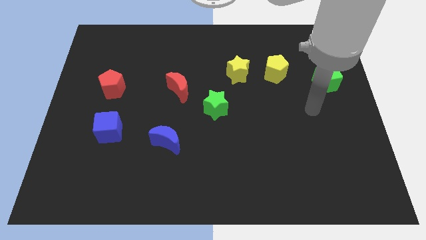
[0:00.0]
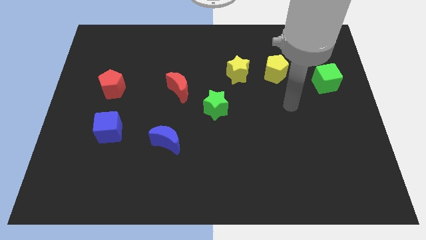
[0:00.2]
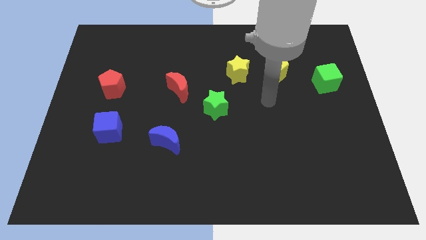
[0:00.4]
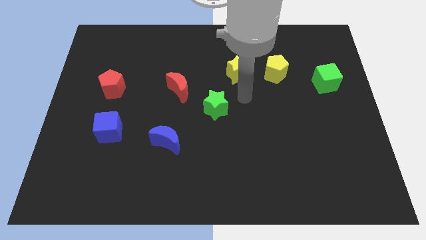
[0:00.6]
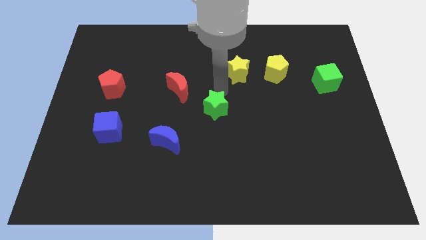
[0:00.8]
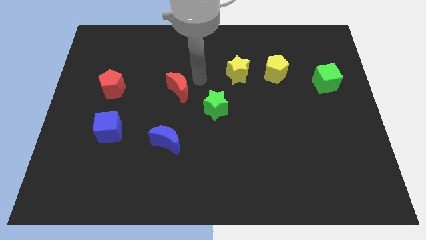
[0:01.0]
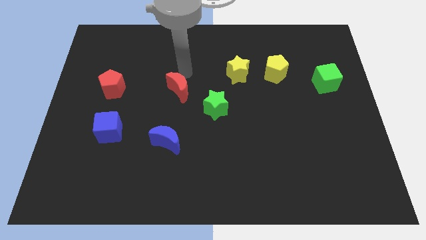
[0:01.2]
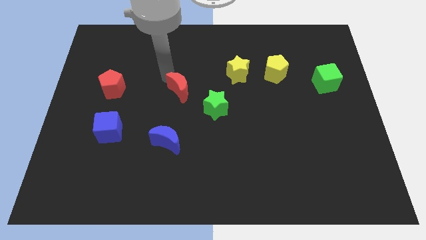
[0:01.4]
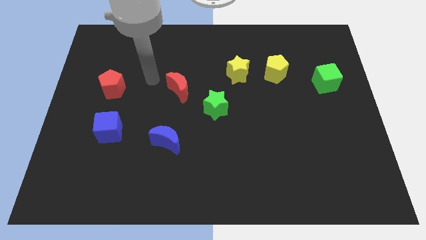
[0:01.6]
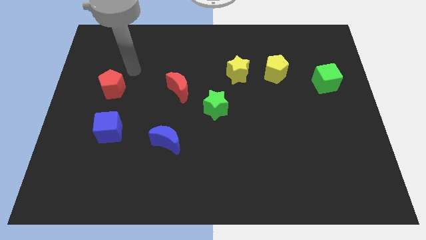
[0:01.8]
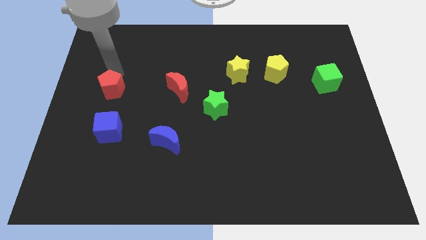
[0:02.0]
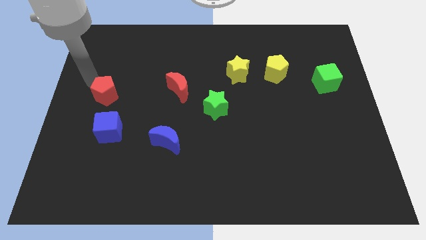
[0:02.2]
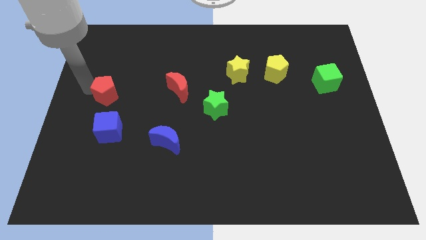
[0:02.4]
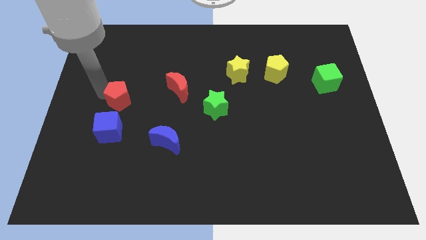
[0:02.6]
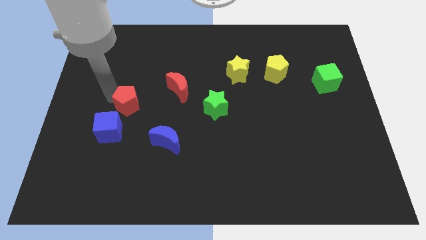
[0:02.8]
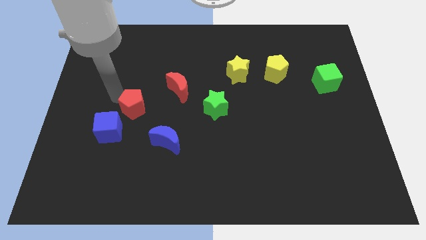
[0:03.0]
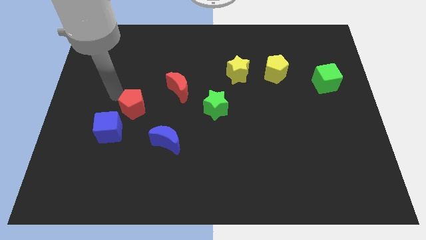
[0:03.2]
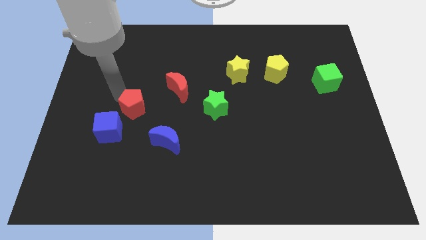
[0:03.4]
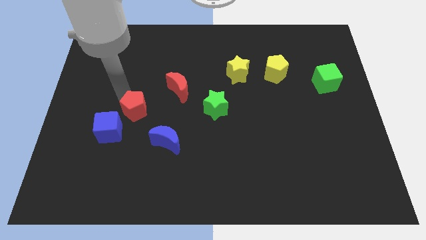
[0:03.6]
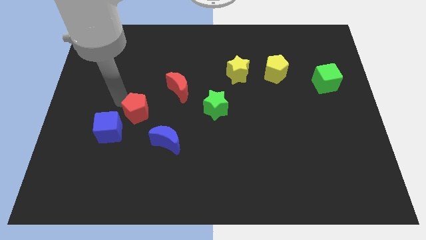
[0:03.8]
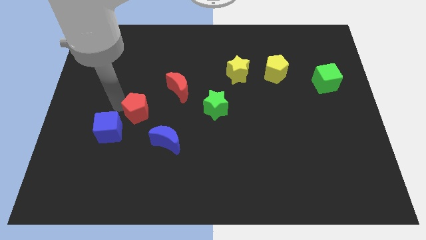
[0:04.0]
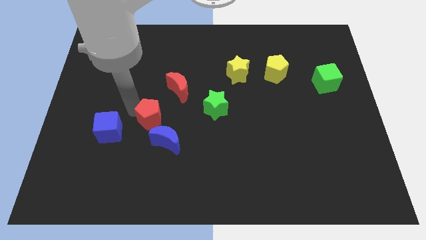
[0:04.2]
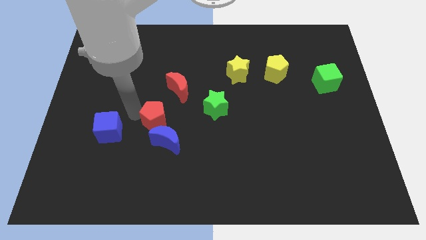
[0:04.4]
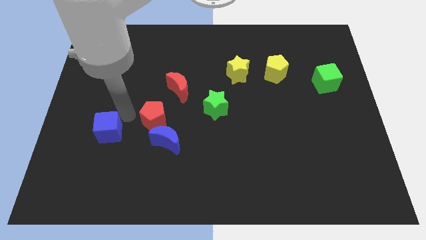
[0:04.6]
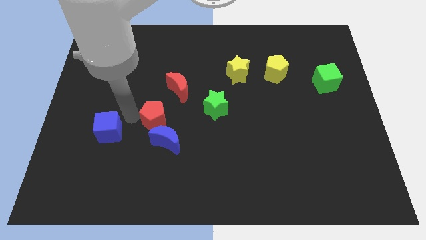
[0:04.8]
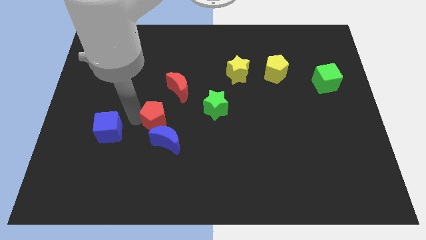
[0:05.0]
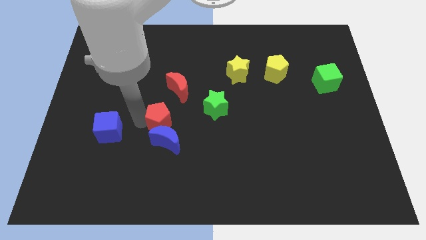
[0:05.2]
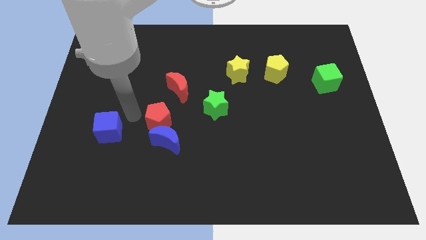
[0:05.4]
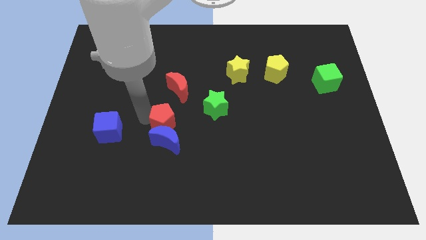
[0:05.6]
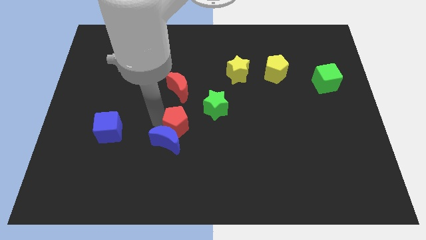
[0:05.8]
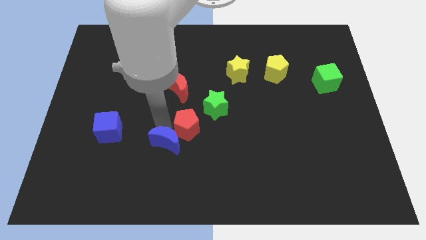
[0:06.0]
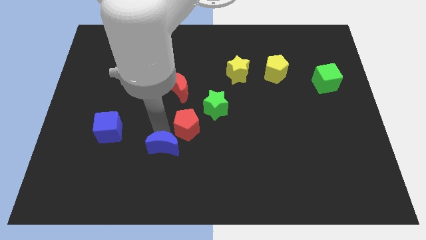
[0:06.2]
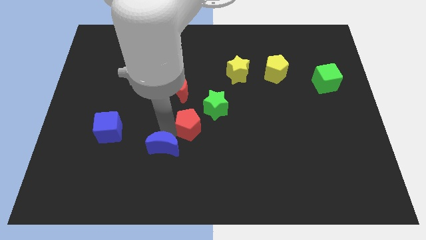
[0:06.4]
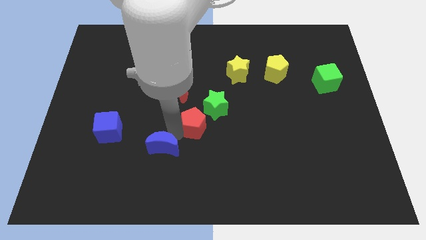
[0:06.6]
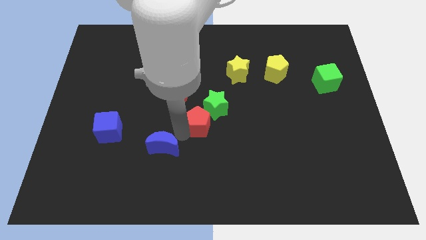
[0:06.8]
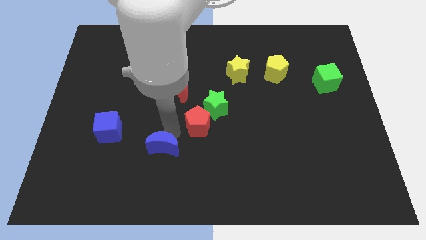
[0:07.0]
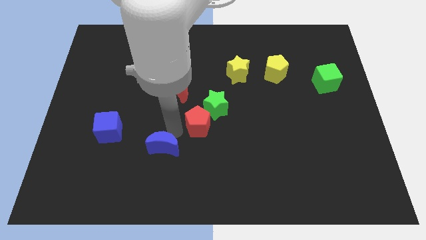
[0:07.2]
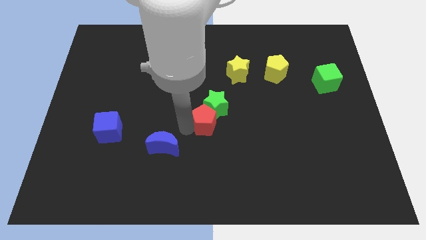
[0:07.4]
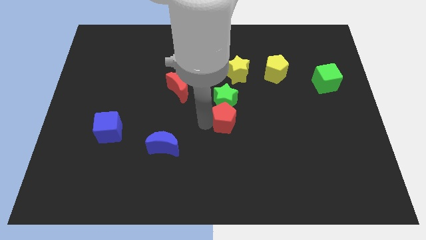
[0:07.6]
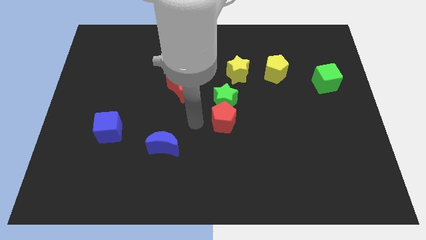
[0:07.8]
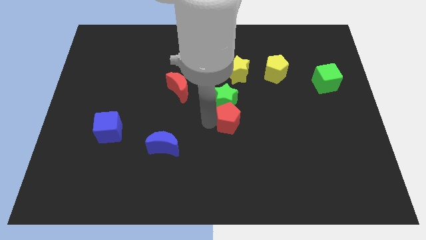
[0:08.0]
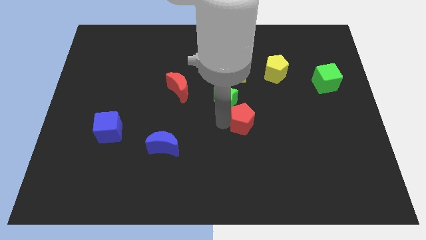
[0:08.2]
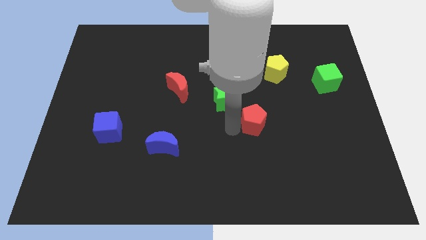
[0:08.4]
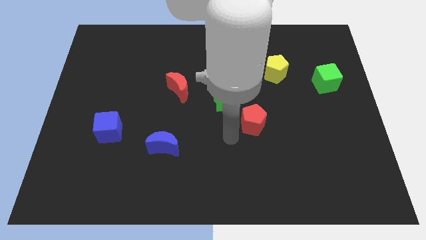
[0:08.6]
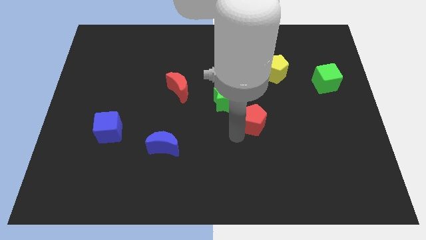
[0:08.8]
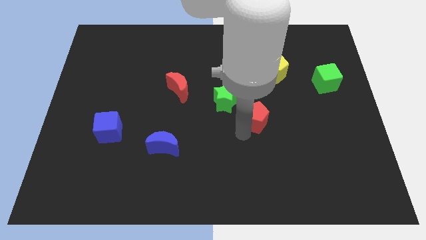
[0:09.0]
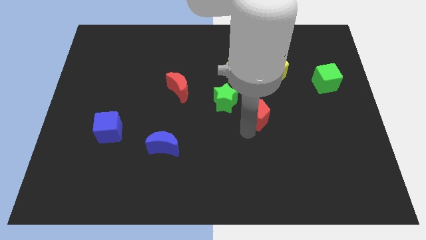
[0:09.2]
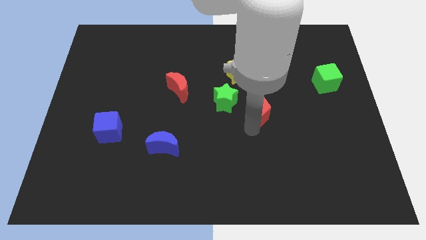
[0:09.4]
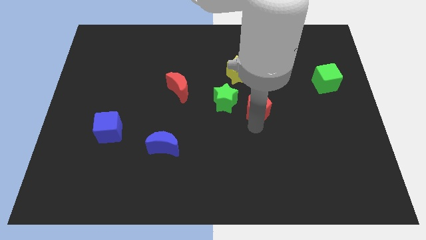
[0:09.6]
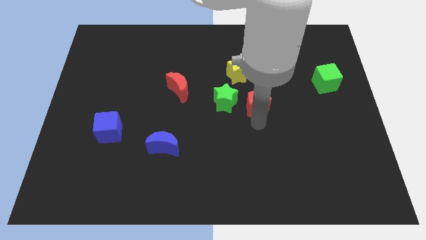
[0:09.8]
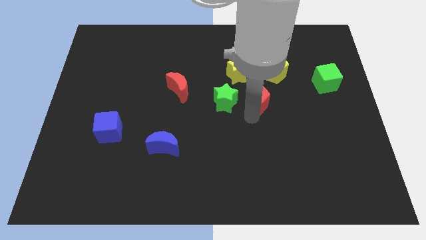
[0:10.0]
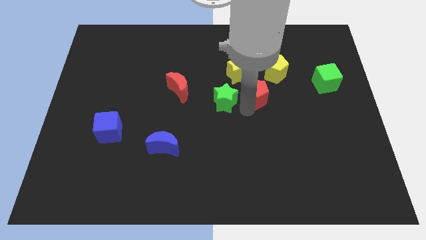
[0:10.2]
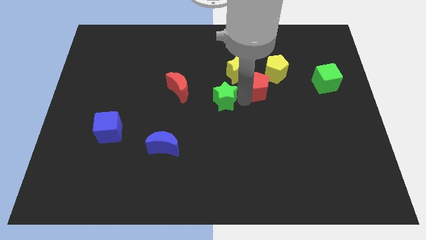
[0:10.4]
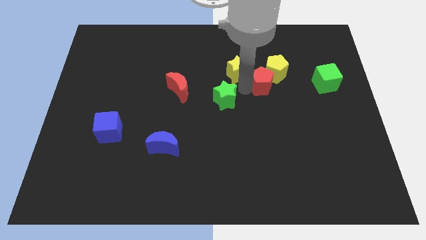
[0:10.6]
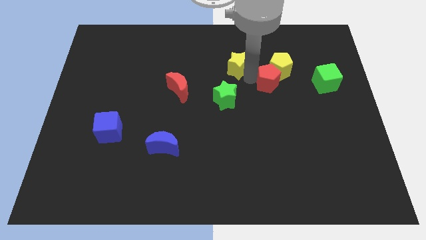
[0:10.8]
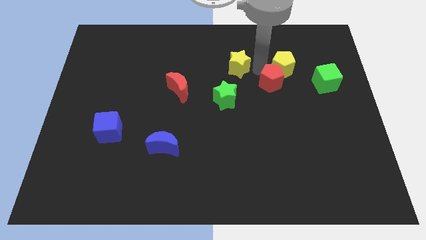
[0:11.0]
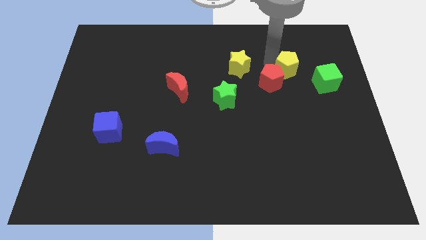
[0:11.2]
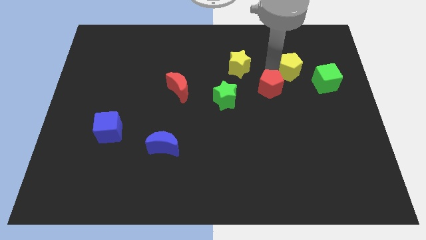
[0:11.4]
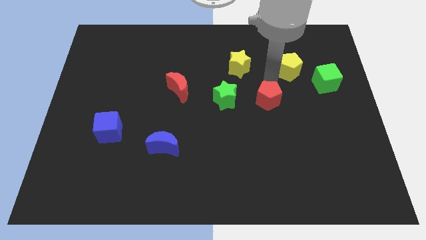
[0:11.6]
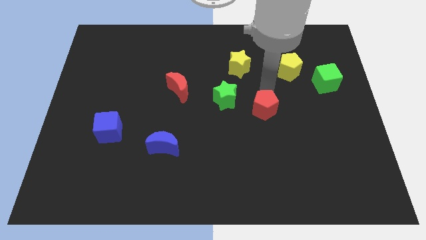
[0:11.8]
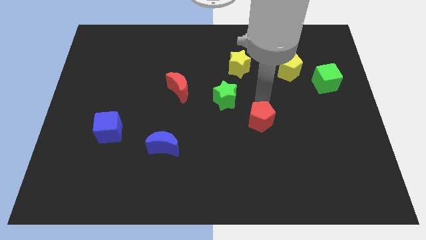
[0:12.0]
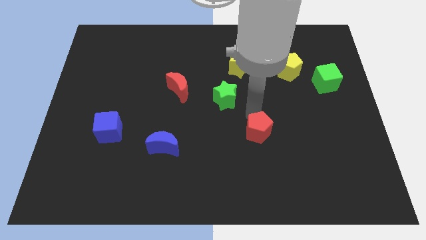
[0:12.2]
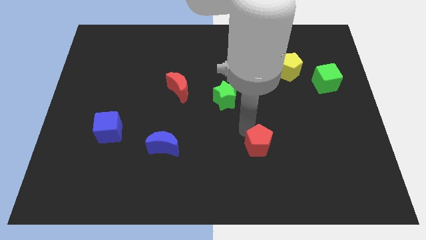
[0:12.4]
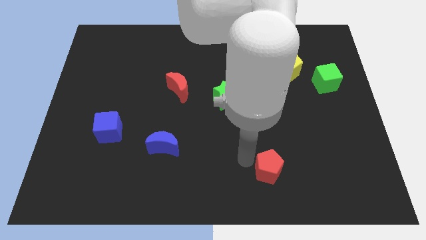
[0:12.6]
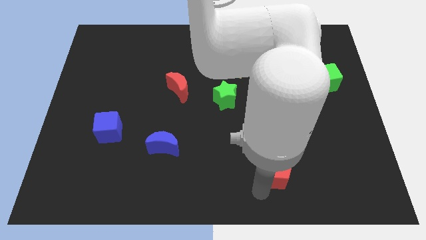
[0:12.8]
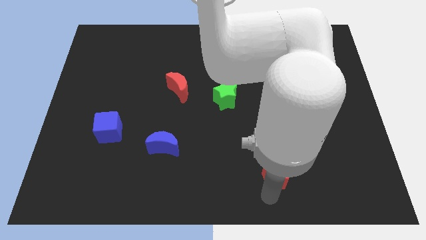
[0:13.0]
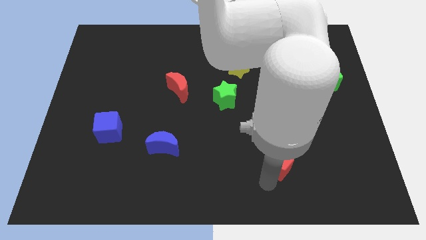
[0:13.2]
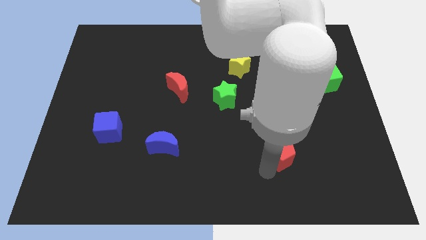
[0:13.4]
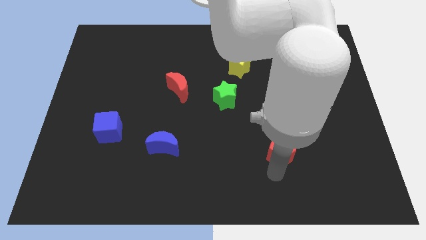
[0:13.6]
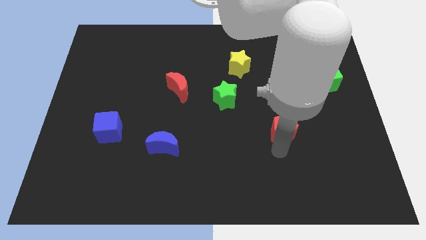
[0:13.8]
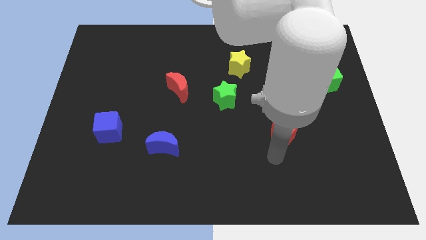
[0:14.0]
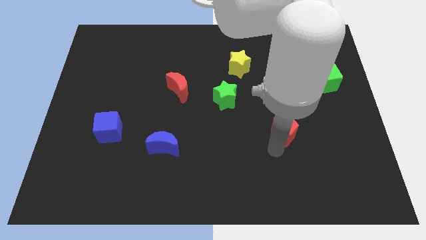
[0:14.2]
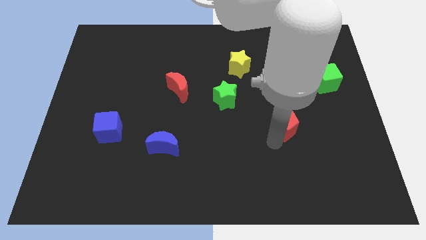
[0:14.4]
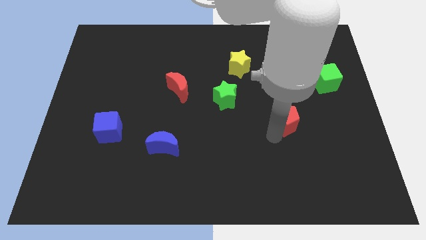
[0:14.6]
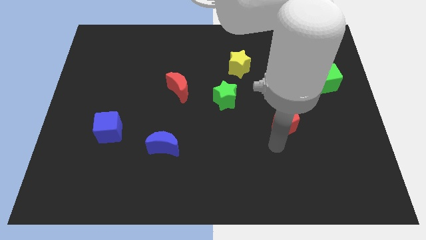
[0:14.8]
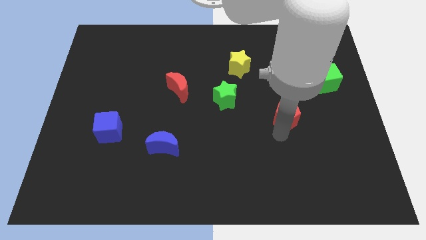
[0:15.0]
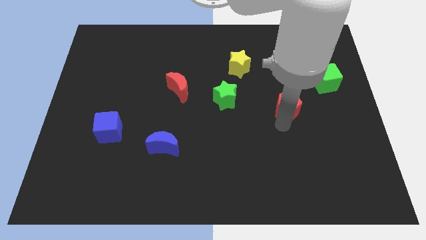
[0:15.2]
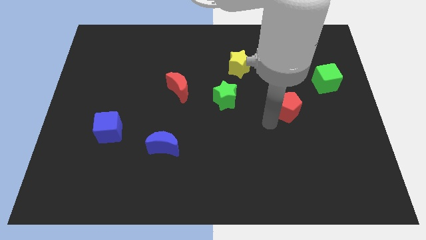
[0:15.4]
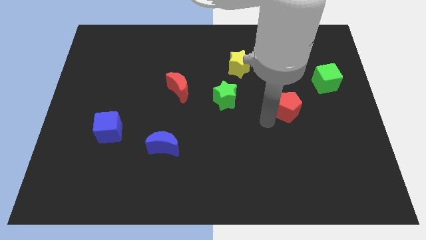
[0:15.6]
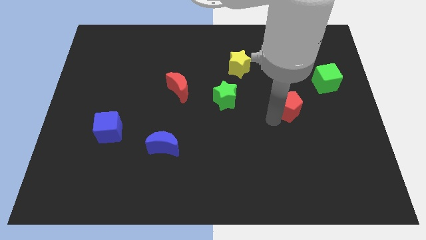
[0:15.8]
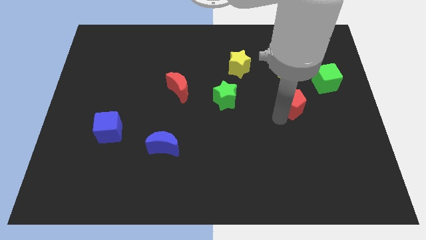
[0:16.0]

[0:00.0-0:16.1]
push the red pentagon to the bottom left of the green cube
